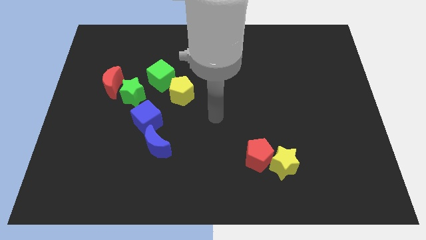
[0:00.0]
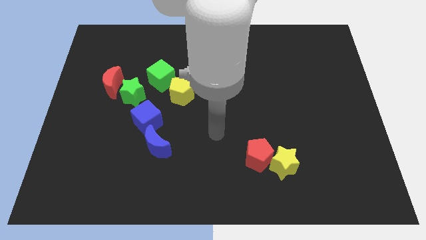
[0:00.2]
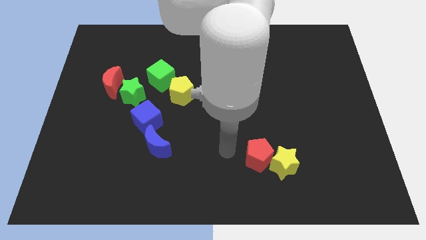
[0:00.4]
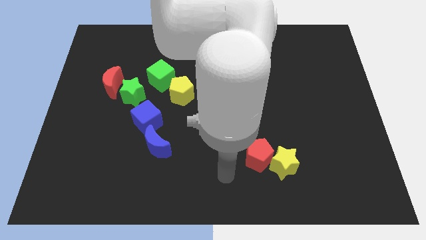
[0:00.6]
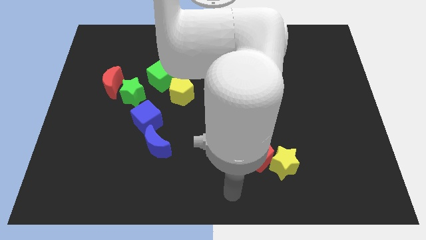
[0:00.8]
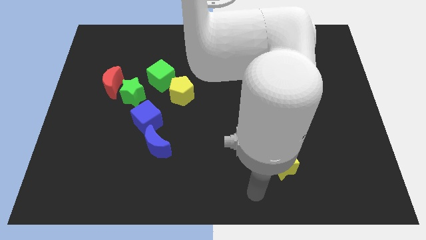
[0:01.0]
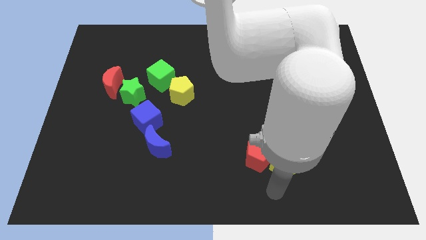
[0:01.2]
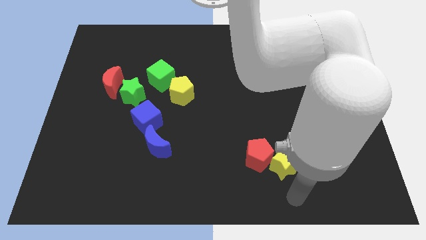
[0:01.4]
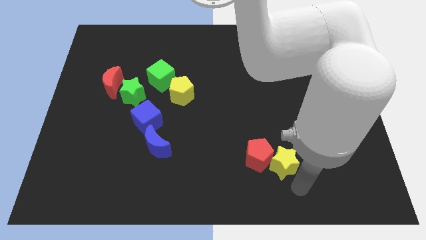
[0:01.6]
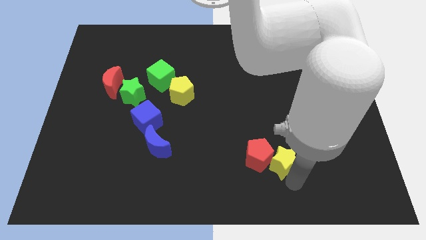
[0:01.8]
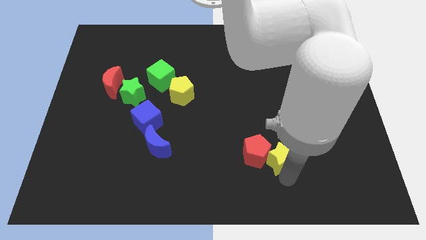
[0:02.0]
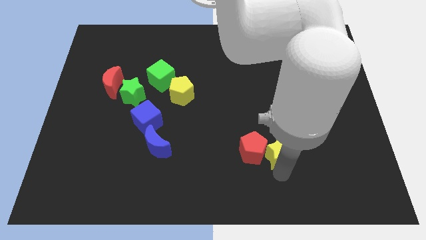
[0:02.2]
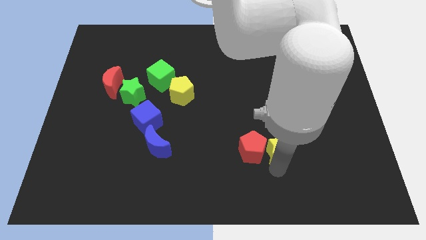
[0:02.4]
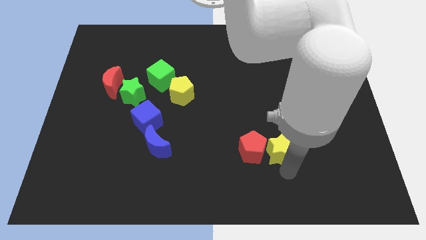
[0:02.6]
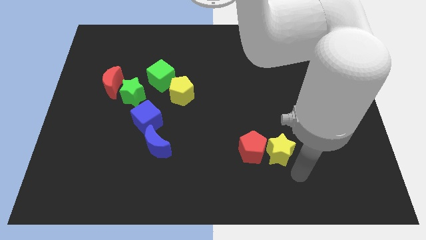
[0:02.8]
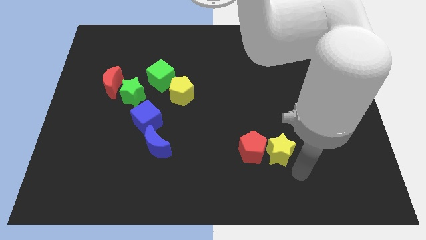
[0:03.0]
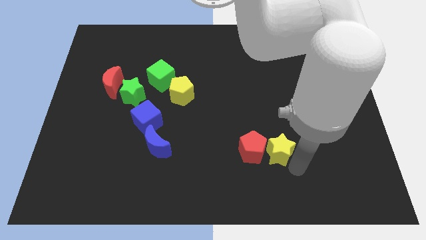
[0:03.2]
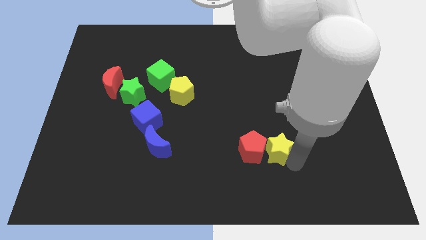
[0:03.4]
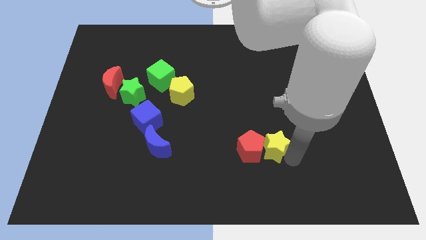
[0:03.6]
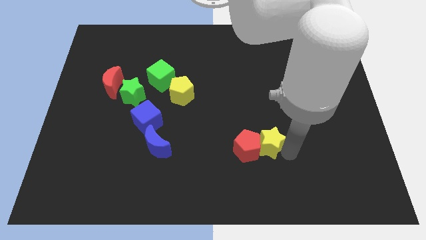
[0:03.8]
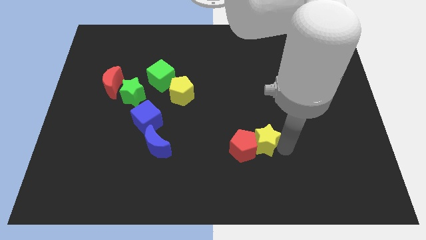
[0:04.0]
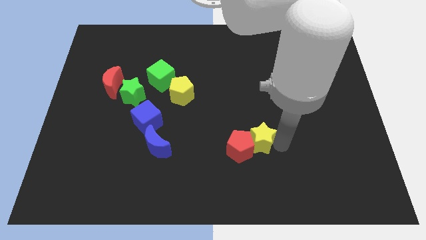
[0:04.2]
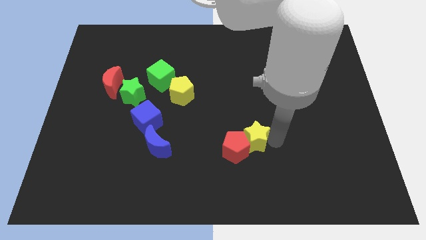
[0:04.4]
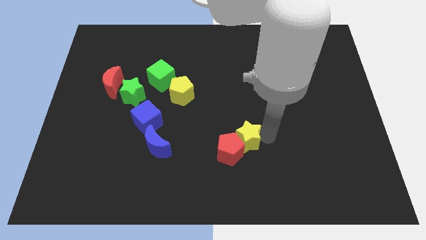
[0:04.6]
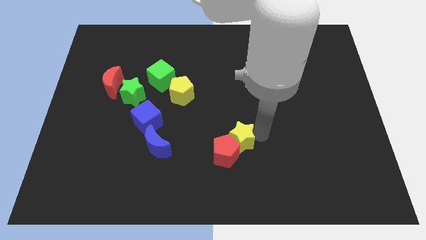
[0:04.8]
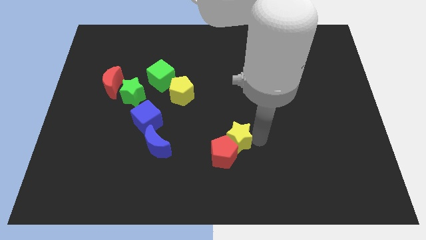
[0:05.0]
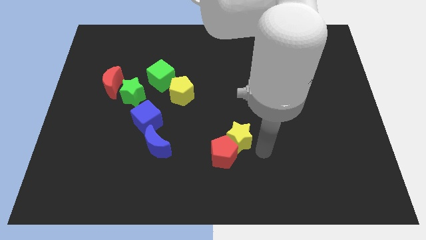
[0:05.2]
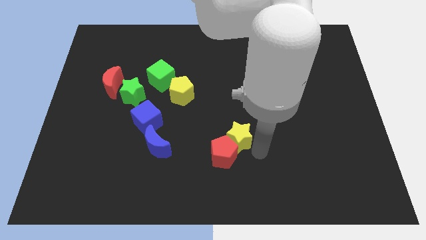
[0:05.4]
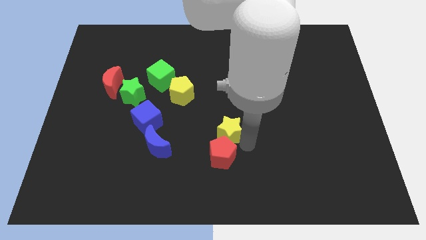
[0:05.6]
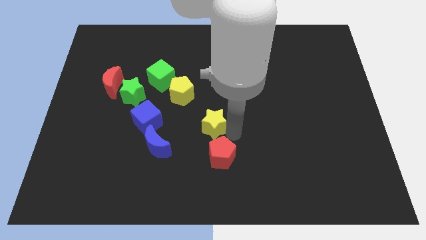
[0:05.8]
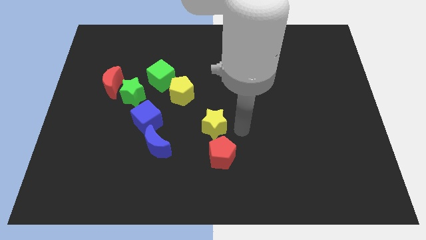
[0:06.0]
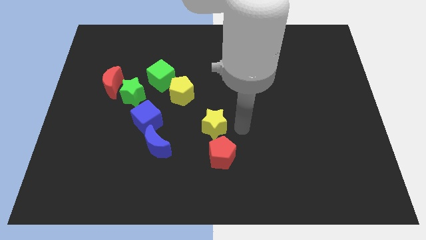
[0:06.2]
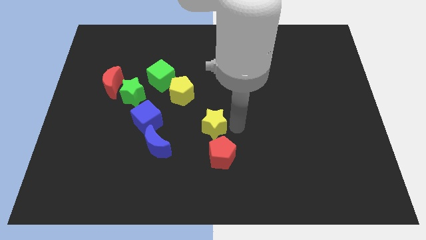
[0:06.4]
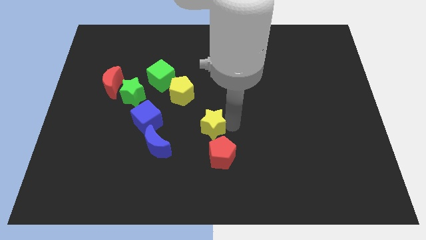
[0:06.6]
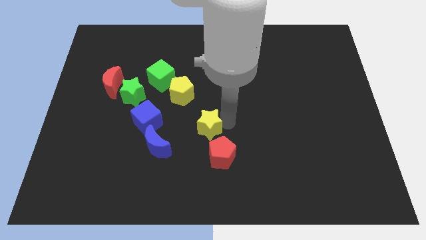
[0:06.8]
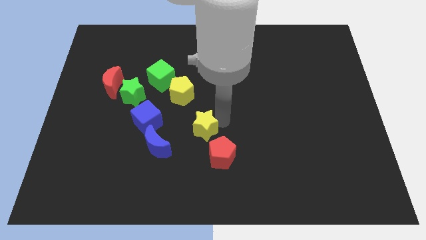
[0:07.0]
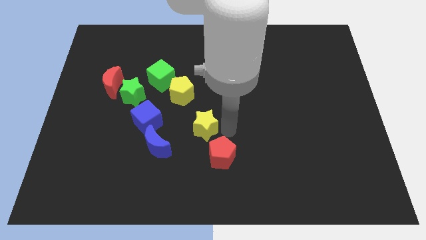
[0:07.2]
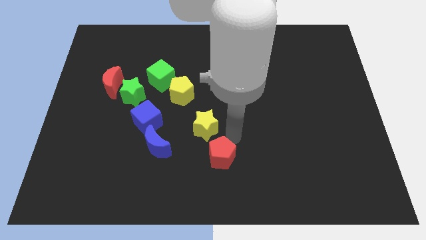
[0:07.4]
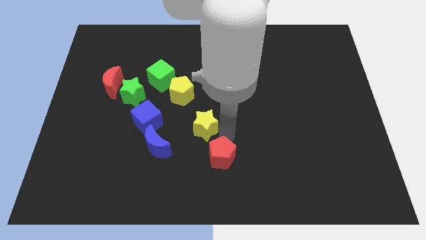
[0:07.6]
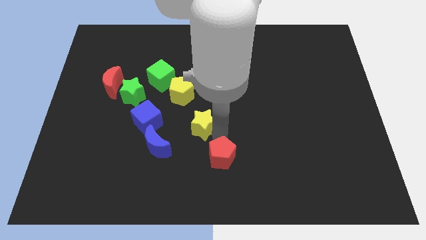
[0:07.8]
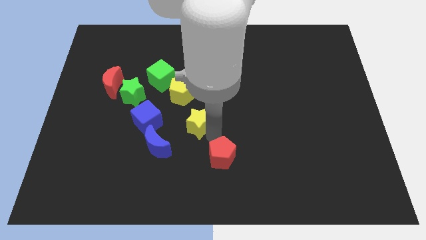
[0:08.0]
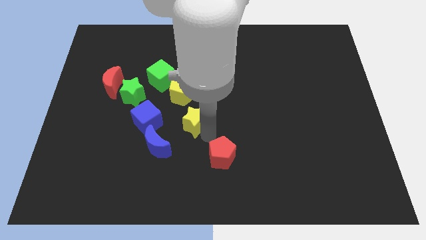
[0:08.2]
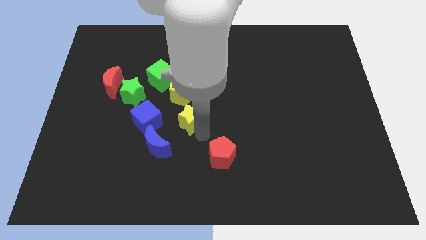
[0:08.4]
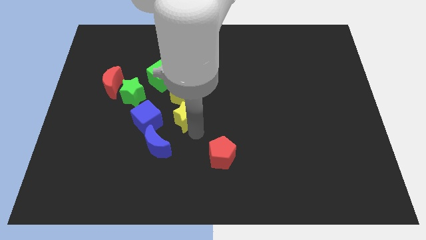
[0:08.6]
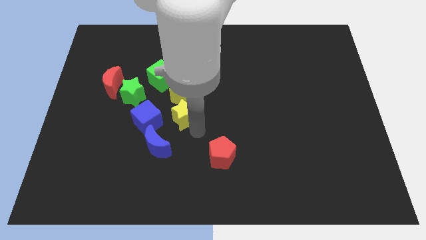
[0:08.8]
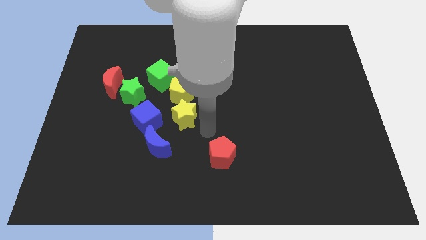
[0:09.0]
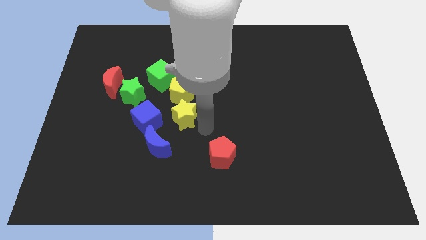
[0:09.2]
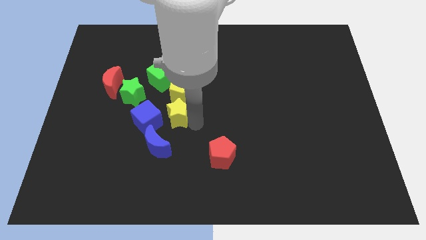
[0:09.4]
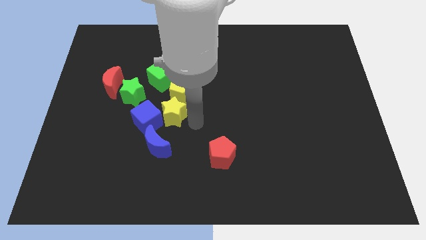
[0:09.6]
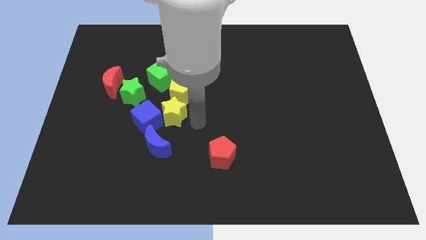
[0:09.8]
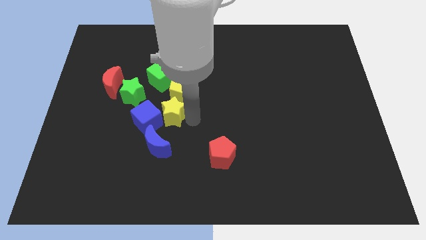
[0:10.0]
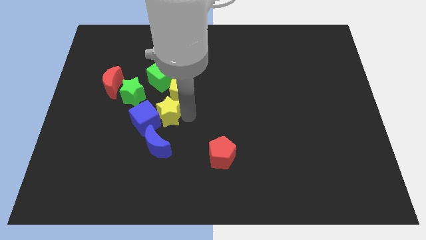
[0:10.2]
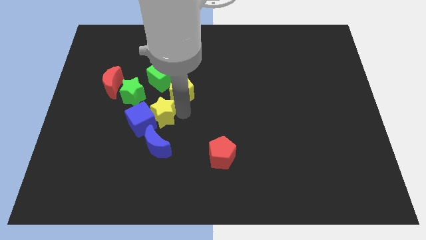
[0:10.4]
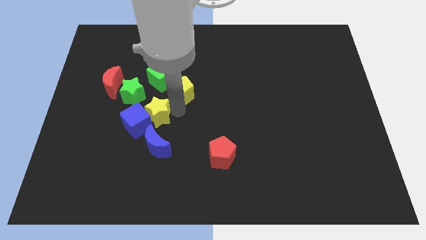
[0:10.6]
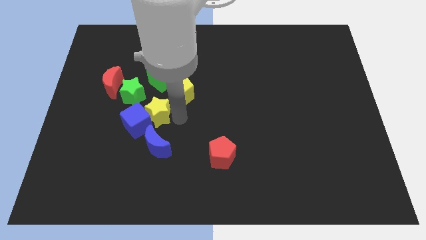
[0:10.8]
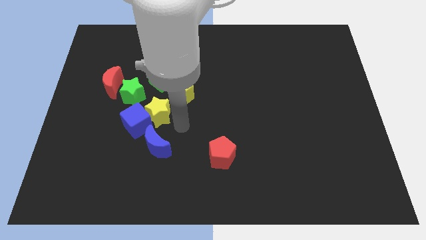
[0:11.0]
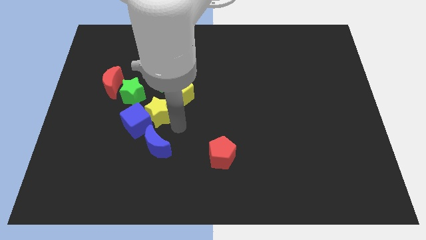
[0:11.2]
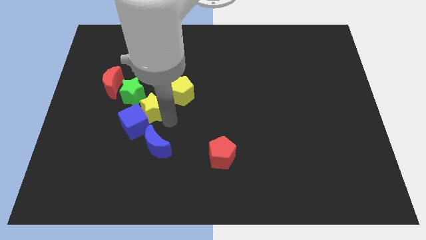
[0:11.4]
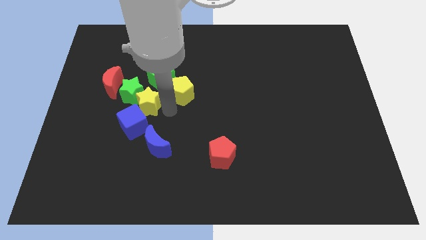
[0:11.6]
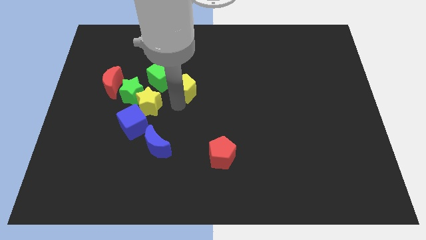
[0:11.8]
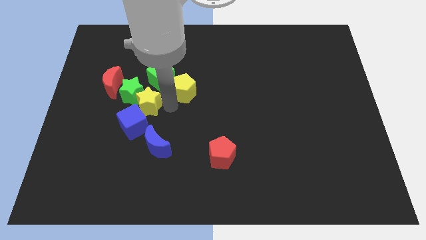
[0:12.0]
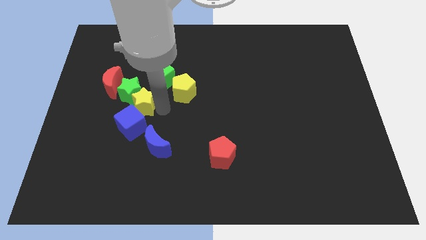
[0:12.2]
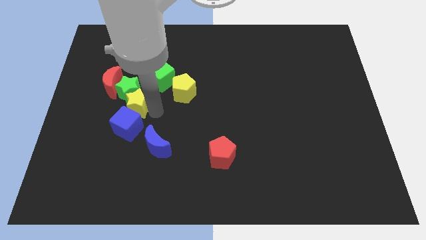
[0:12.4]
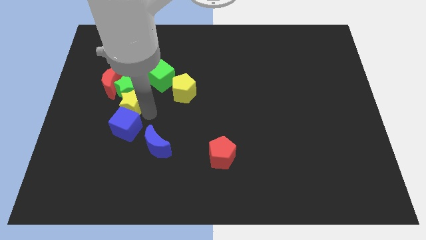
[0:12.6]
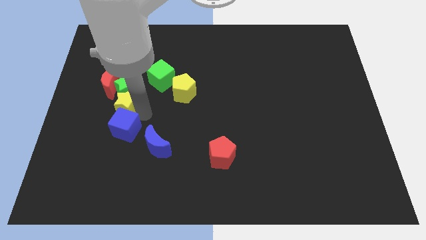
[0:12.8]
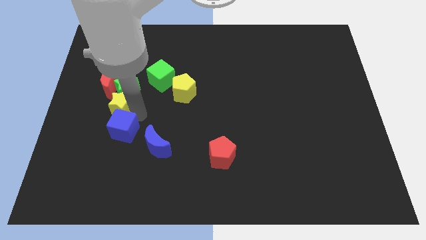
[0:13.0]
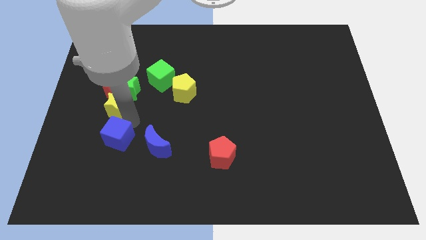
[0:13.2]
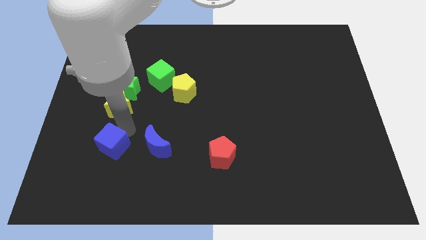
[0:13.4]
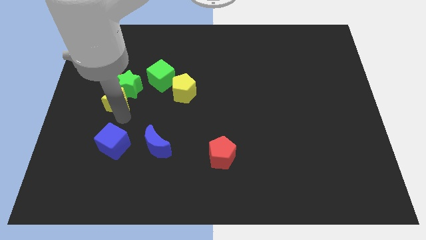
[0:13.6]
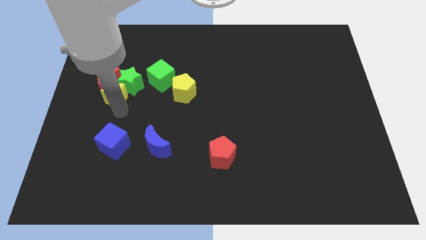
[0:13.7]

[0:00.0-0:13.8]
slide the yellow star to the red moon
